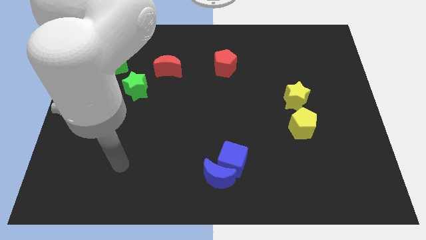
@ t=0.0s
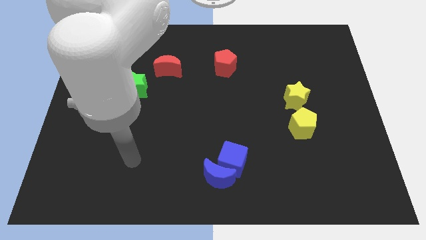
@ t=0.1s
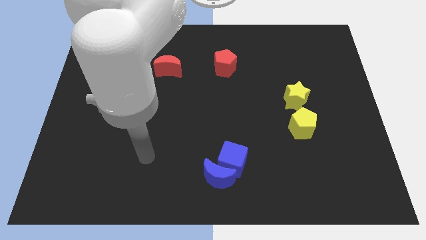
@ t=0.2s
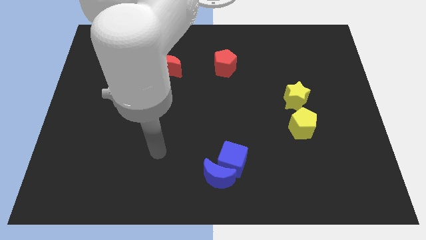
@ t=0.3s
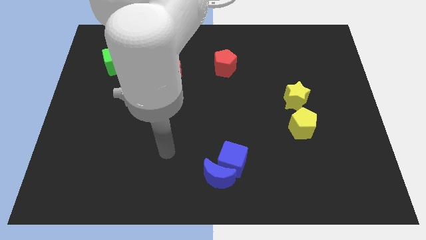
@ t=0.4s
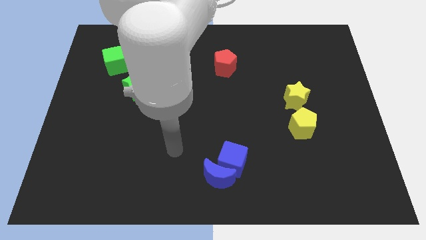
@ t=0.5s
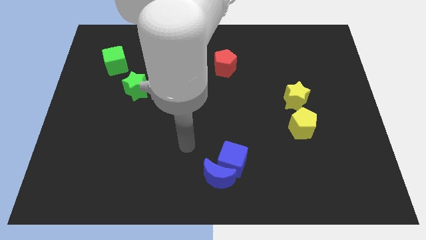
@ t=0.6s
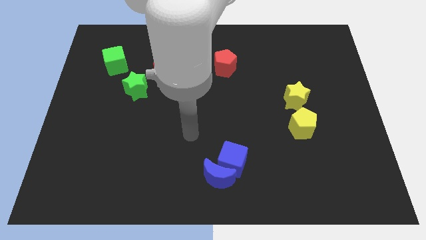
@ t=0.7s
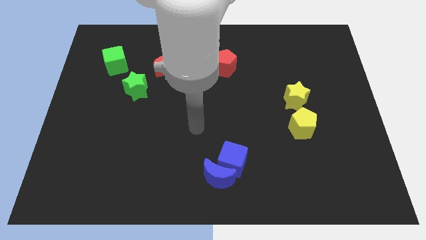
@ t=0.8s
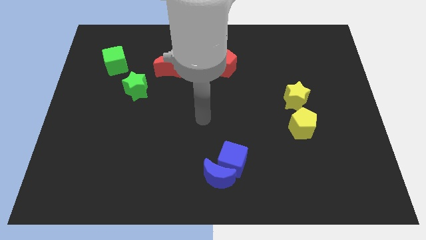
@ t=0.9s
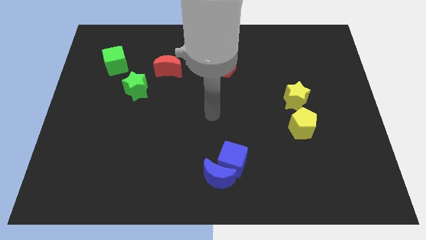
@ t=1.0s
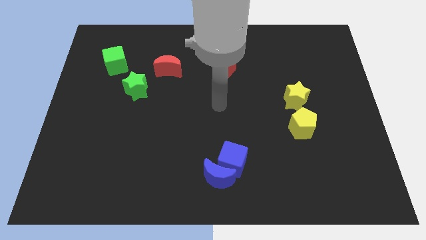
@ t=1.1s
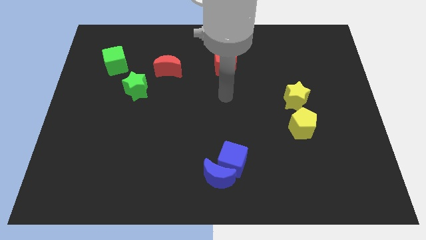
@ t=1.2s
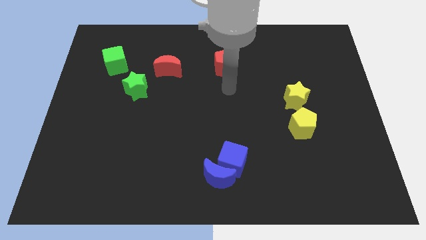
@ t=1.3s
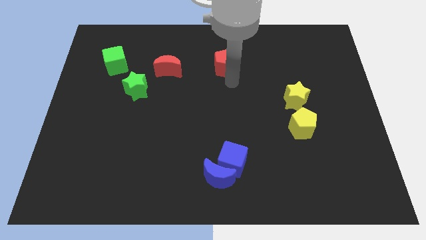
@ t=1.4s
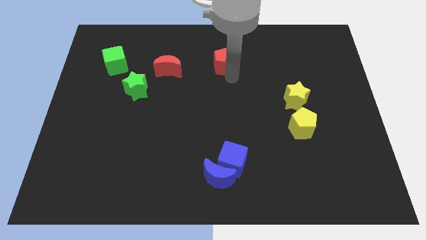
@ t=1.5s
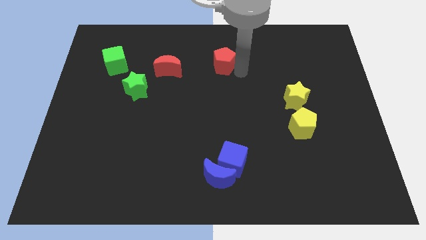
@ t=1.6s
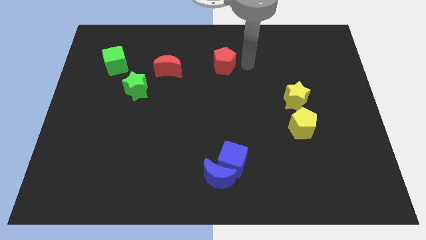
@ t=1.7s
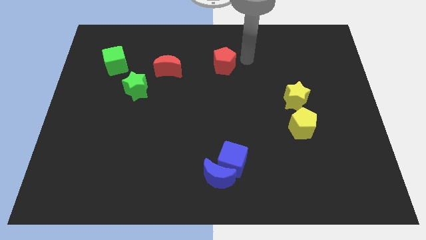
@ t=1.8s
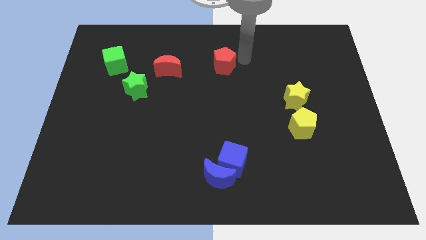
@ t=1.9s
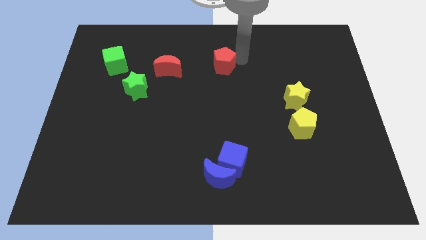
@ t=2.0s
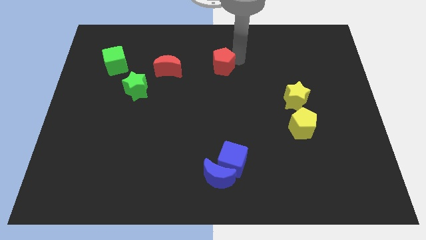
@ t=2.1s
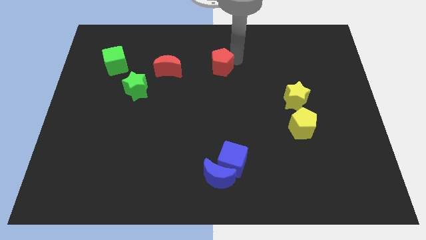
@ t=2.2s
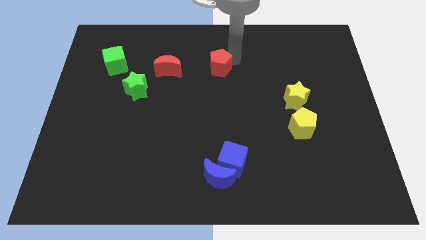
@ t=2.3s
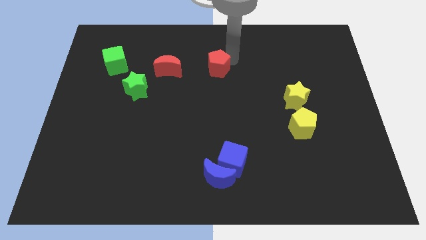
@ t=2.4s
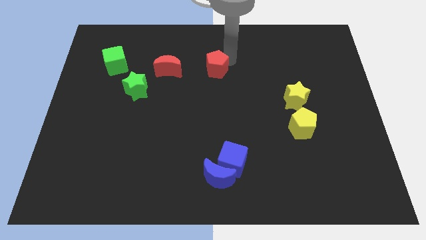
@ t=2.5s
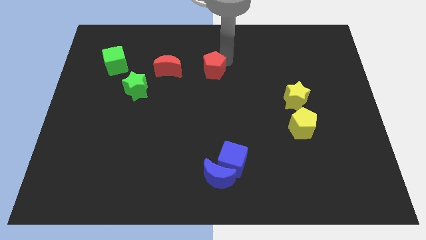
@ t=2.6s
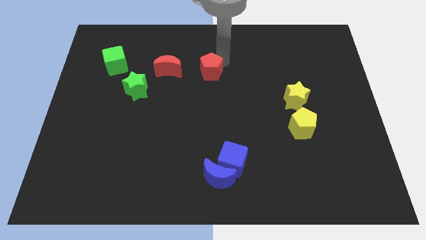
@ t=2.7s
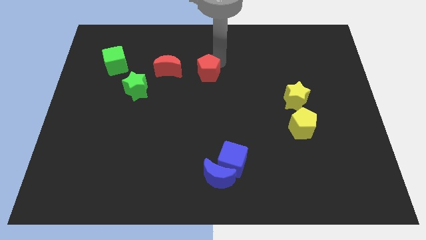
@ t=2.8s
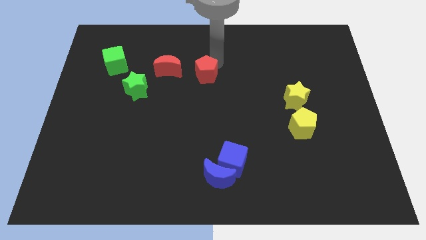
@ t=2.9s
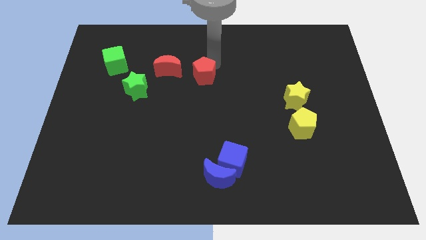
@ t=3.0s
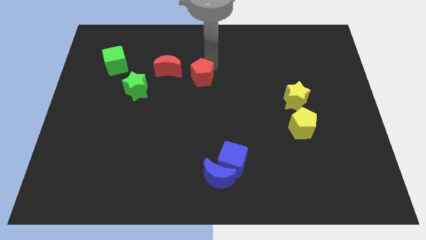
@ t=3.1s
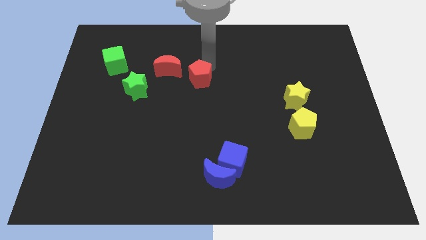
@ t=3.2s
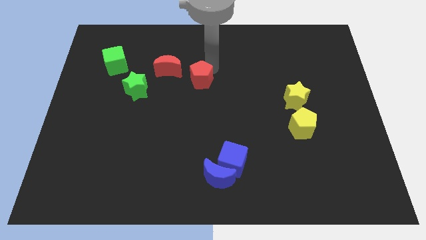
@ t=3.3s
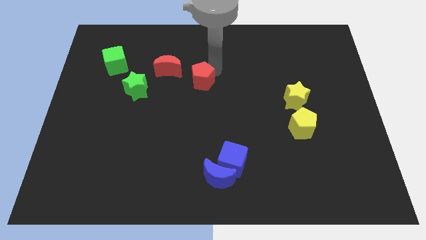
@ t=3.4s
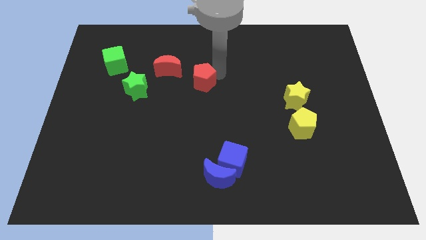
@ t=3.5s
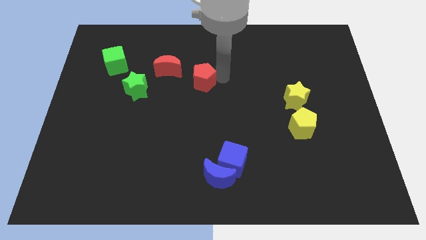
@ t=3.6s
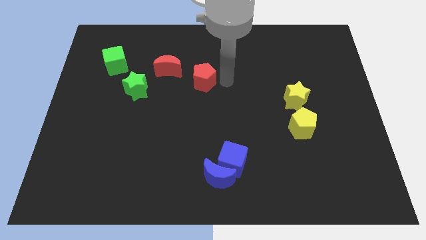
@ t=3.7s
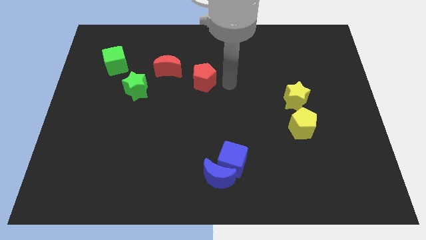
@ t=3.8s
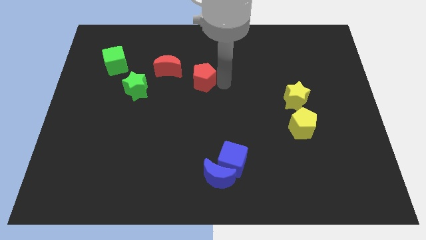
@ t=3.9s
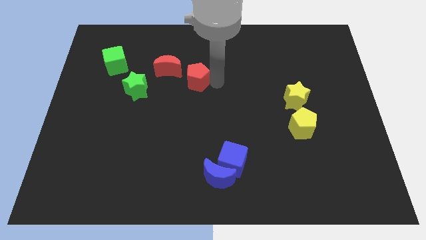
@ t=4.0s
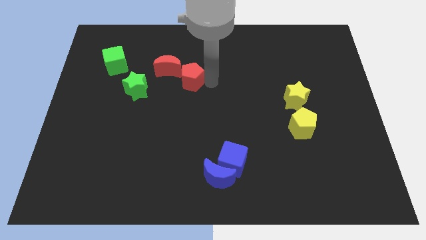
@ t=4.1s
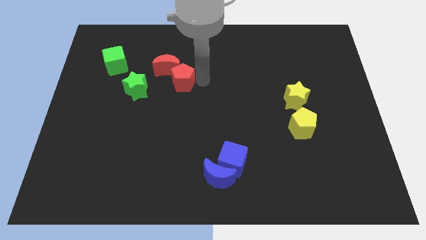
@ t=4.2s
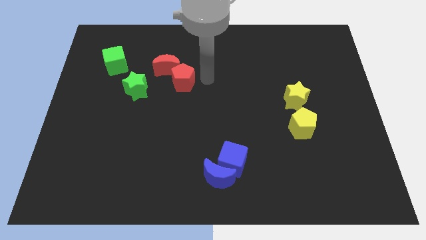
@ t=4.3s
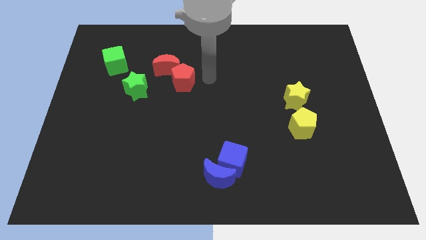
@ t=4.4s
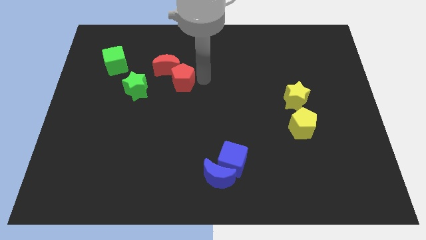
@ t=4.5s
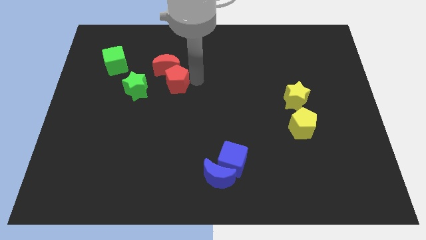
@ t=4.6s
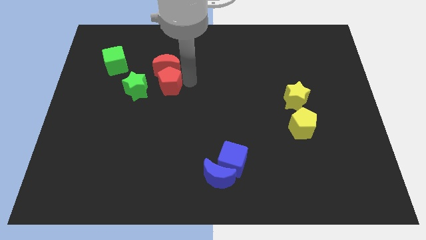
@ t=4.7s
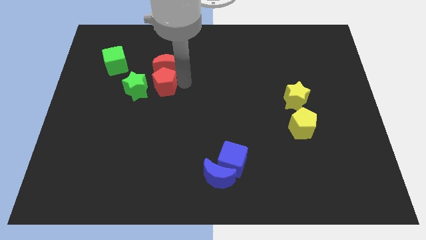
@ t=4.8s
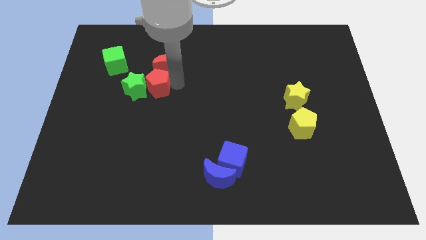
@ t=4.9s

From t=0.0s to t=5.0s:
push the red pentagon next to the green star

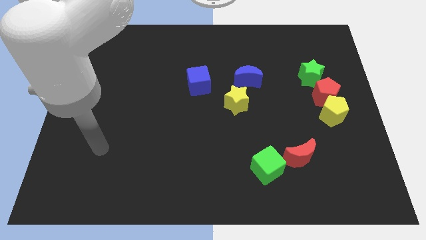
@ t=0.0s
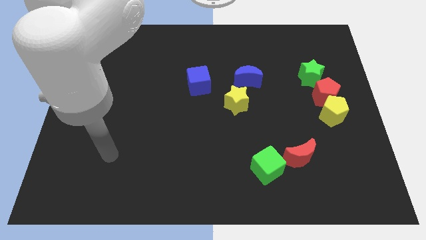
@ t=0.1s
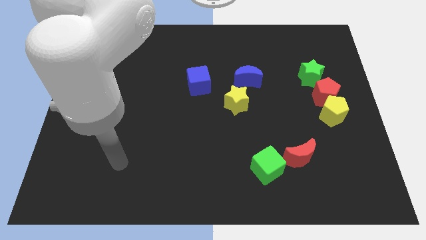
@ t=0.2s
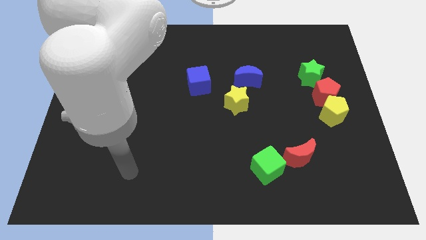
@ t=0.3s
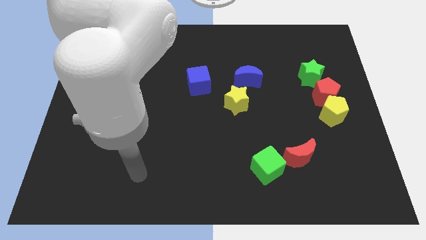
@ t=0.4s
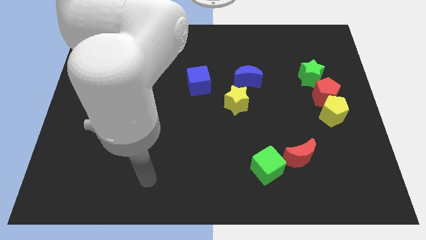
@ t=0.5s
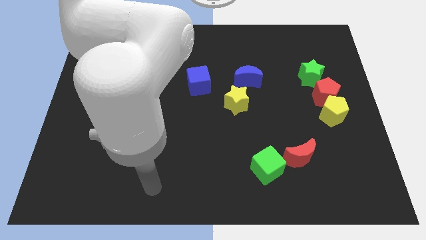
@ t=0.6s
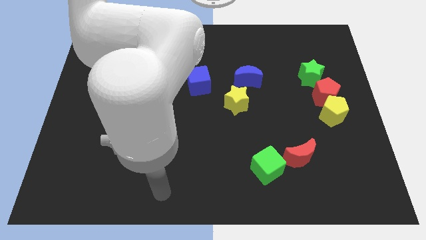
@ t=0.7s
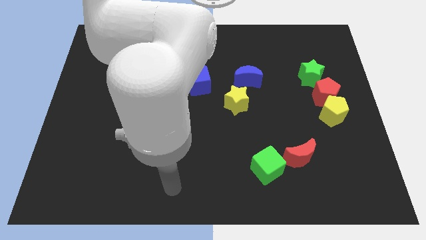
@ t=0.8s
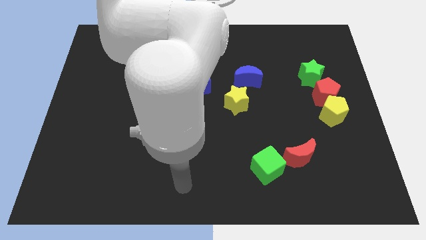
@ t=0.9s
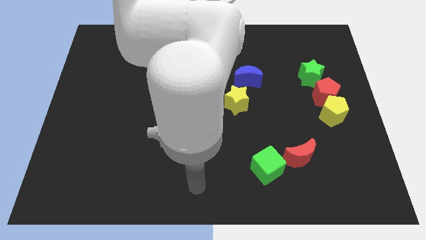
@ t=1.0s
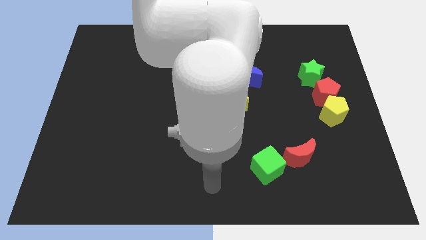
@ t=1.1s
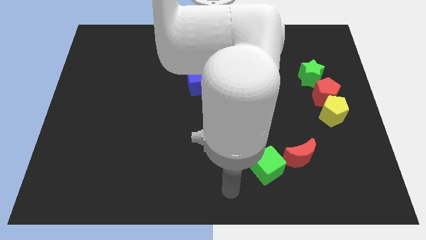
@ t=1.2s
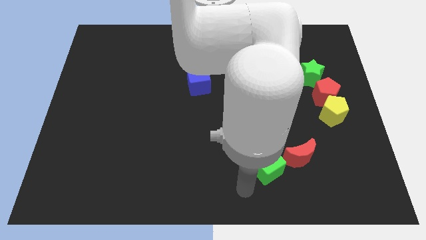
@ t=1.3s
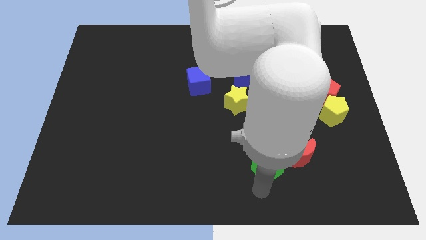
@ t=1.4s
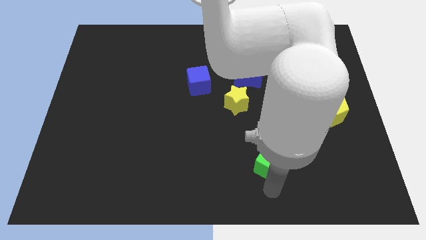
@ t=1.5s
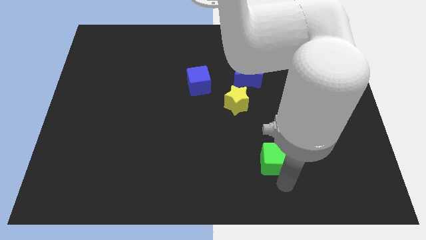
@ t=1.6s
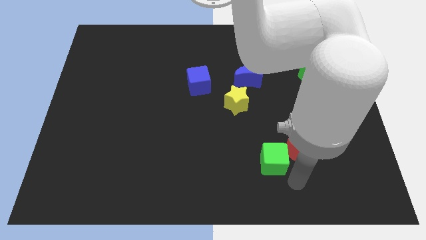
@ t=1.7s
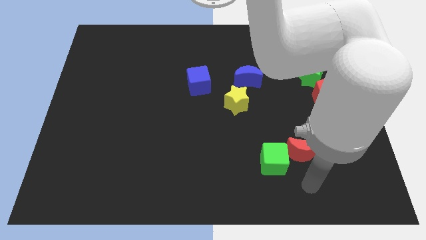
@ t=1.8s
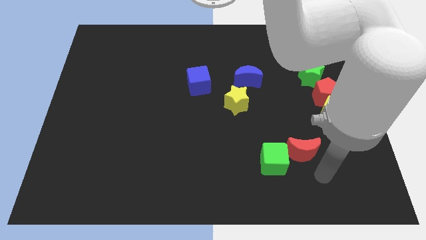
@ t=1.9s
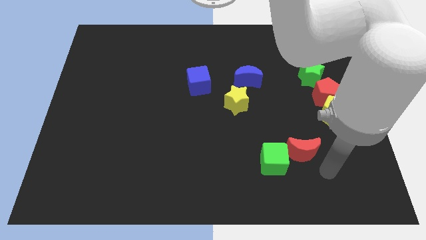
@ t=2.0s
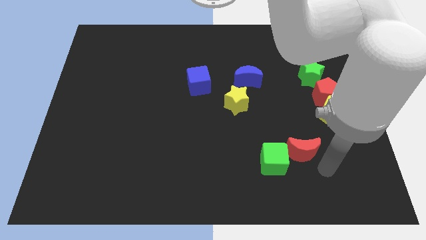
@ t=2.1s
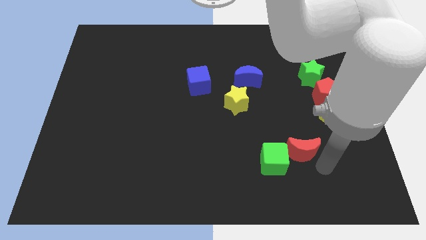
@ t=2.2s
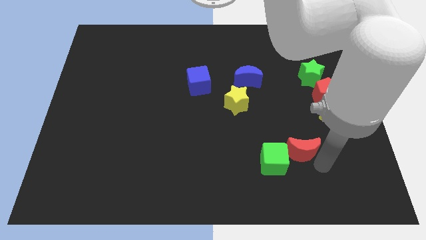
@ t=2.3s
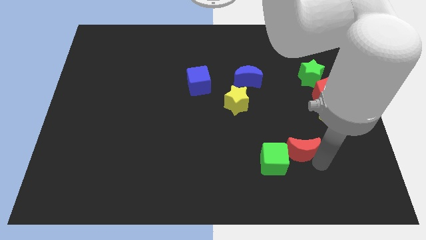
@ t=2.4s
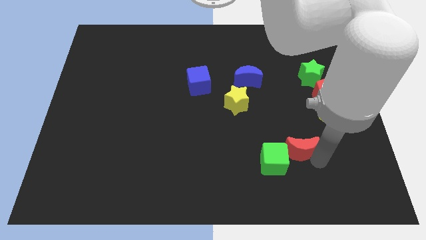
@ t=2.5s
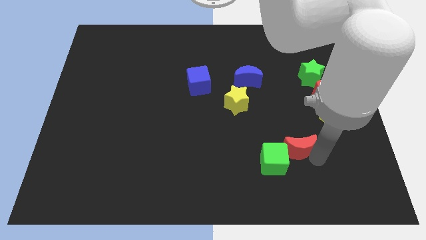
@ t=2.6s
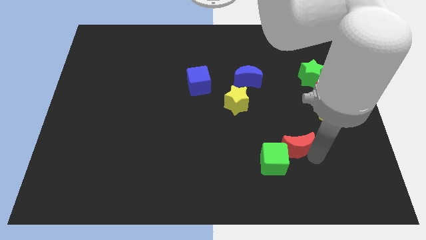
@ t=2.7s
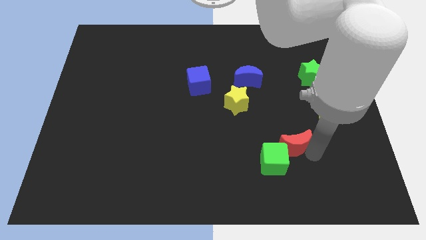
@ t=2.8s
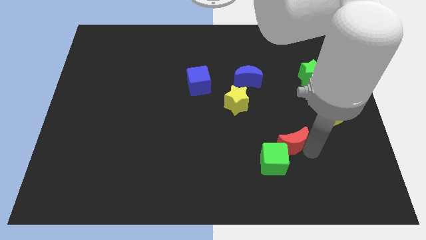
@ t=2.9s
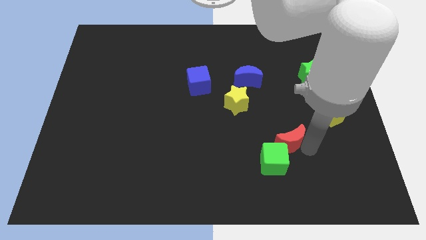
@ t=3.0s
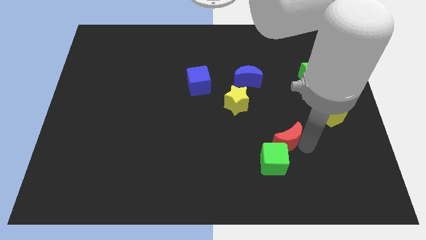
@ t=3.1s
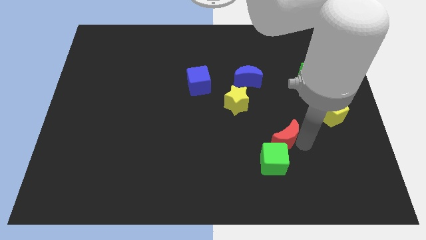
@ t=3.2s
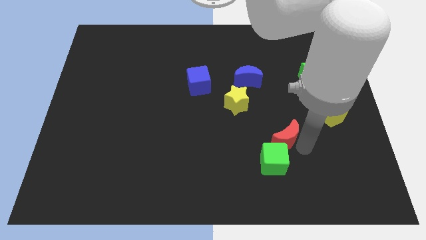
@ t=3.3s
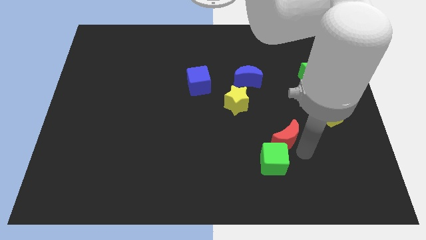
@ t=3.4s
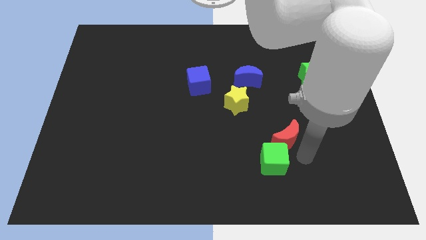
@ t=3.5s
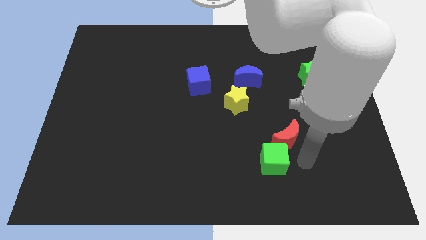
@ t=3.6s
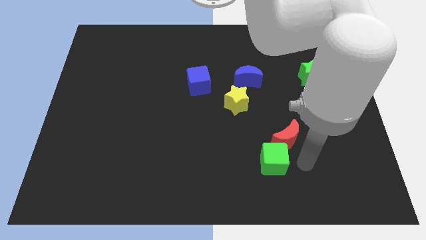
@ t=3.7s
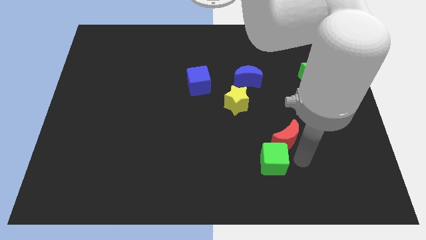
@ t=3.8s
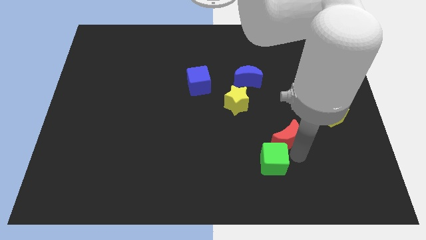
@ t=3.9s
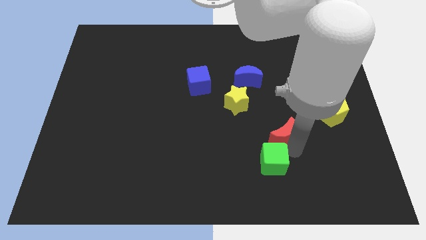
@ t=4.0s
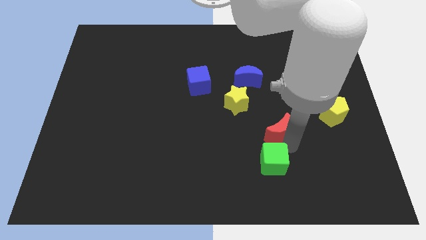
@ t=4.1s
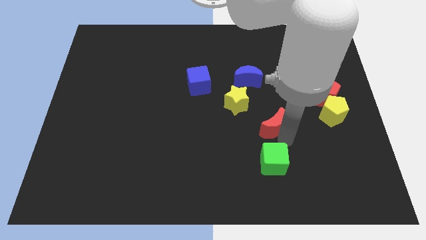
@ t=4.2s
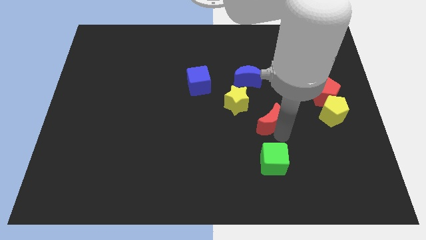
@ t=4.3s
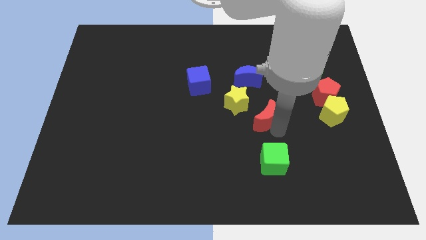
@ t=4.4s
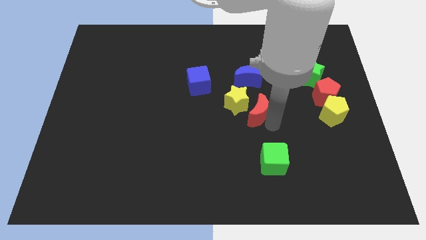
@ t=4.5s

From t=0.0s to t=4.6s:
put the red moon close to the yellow star
